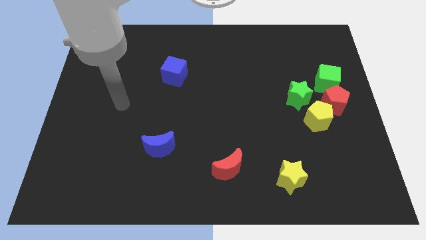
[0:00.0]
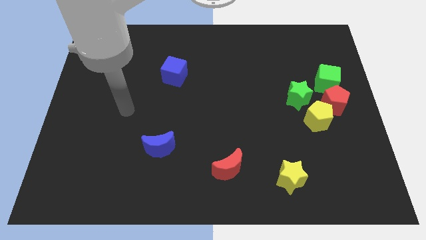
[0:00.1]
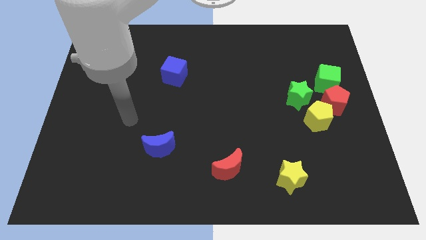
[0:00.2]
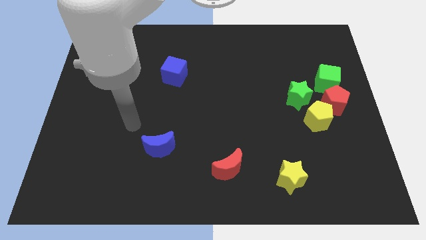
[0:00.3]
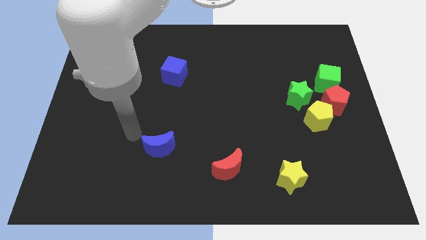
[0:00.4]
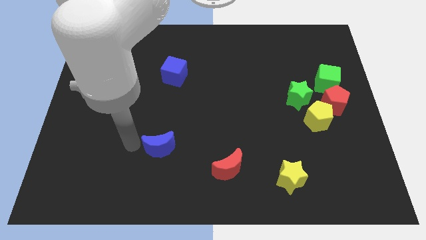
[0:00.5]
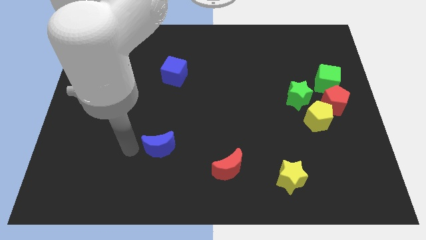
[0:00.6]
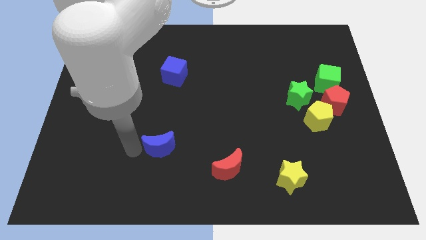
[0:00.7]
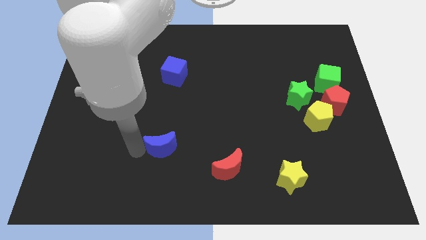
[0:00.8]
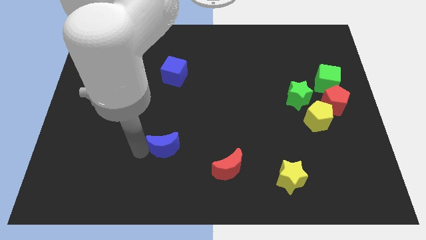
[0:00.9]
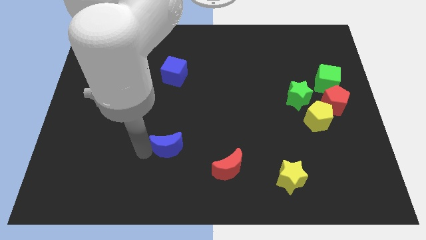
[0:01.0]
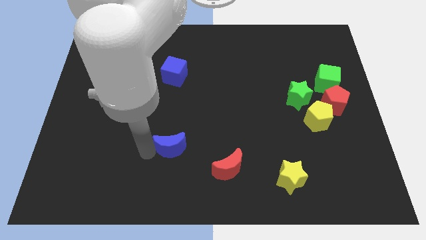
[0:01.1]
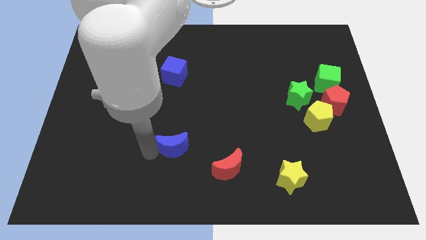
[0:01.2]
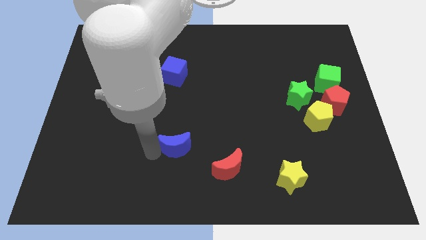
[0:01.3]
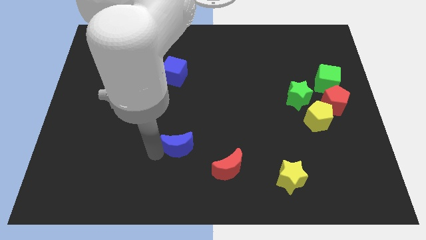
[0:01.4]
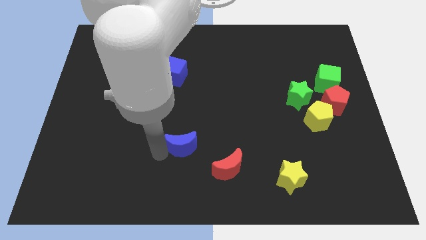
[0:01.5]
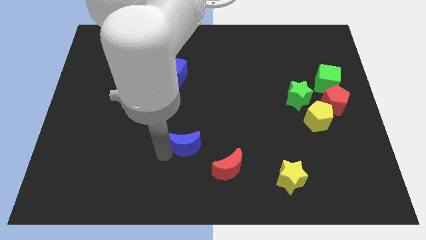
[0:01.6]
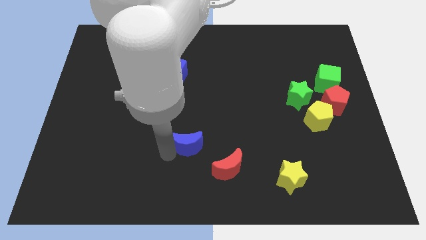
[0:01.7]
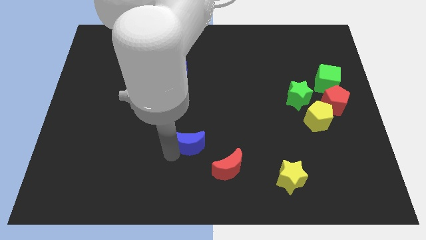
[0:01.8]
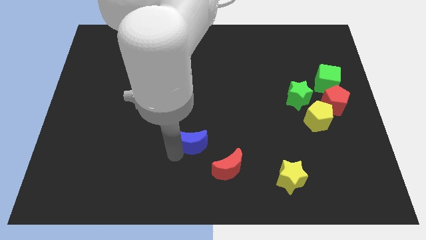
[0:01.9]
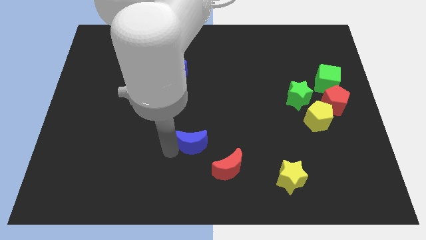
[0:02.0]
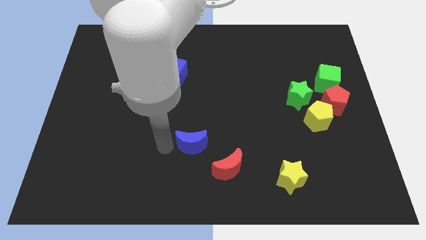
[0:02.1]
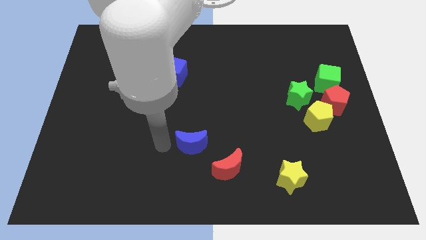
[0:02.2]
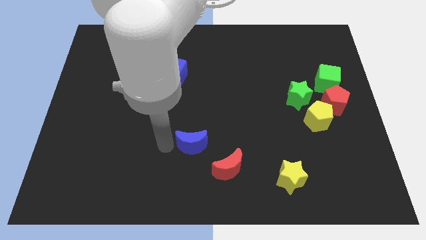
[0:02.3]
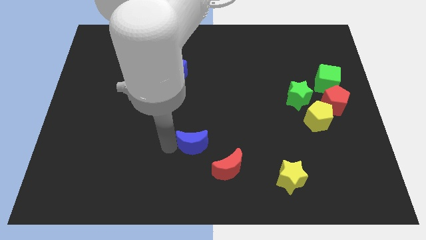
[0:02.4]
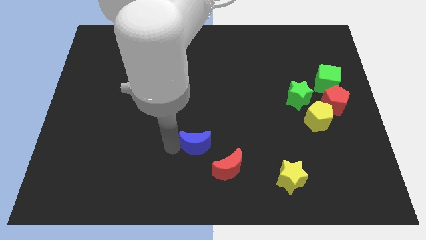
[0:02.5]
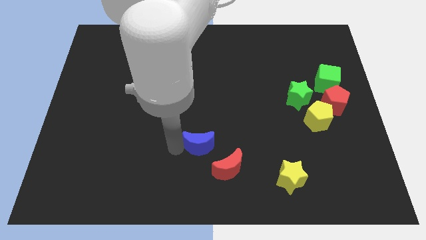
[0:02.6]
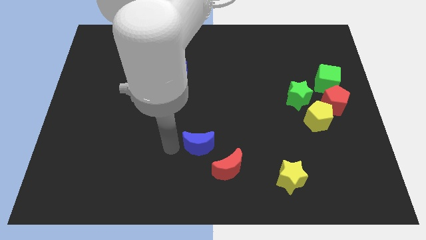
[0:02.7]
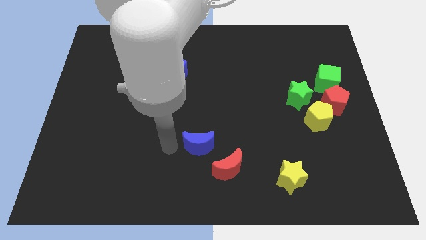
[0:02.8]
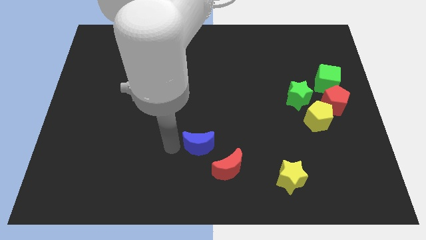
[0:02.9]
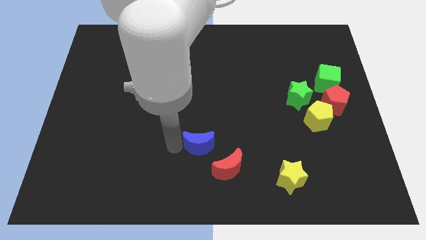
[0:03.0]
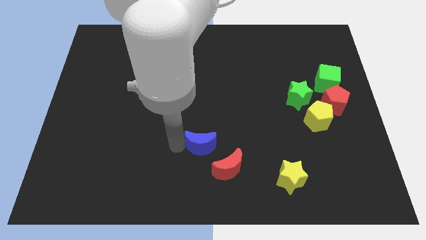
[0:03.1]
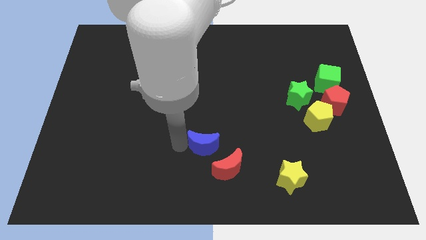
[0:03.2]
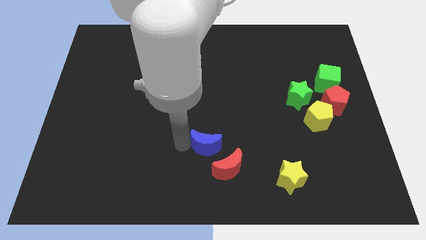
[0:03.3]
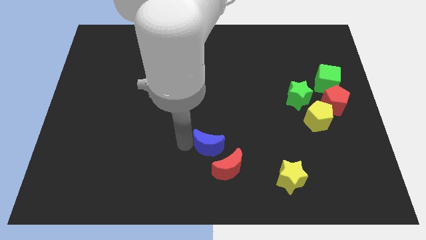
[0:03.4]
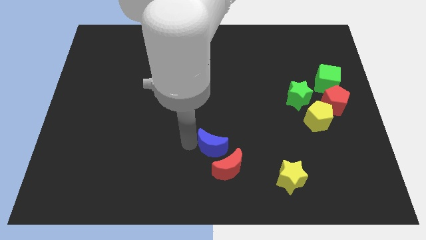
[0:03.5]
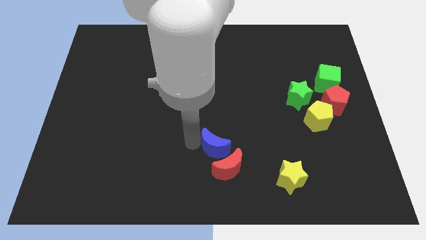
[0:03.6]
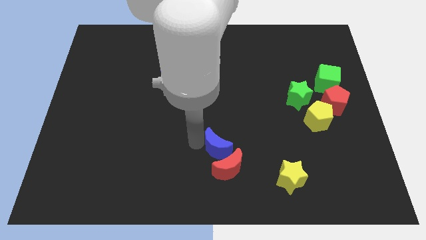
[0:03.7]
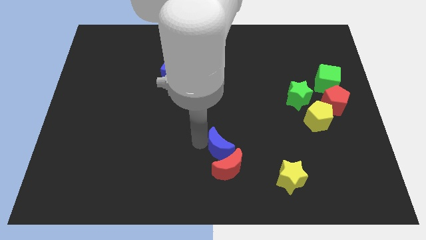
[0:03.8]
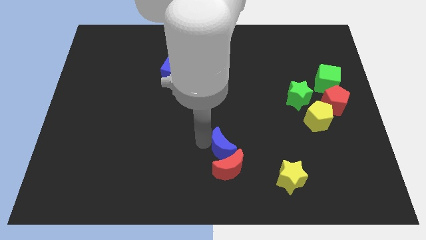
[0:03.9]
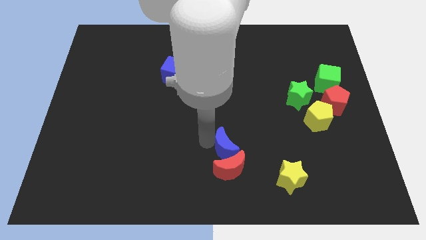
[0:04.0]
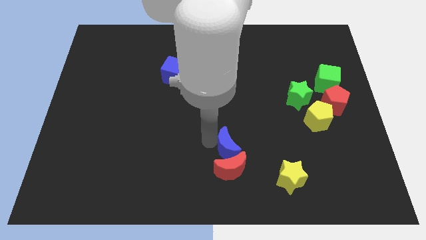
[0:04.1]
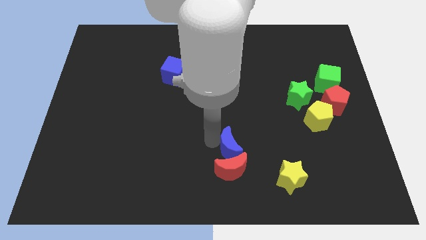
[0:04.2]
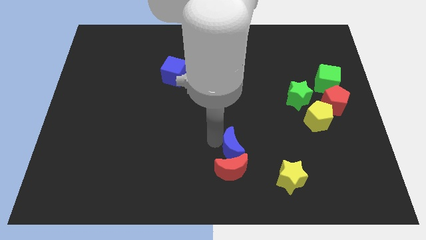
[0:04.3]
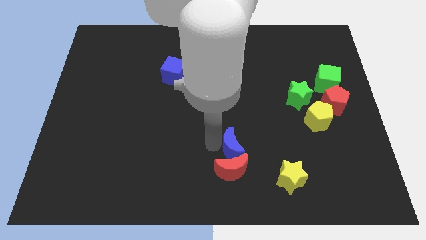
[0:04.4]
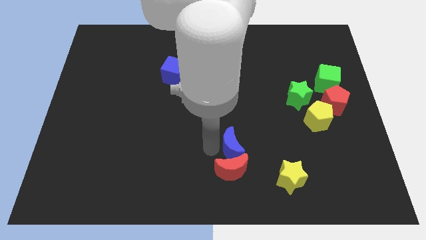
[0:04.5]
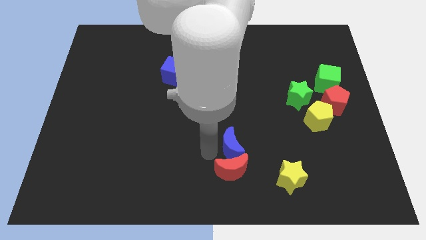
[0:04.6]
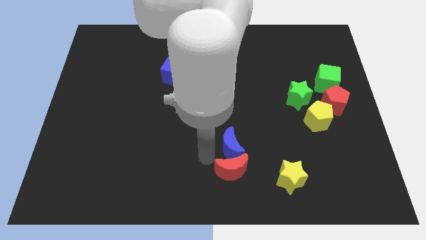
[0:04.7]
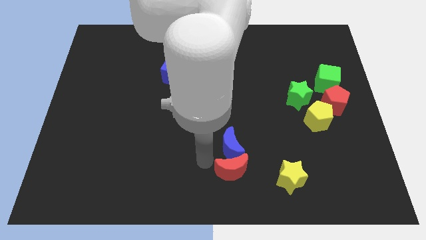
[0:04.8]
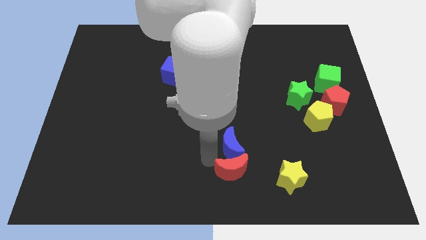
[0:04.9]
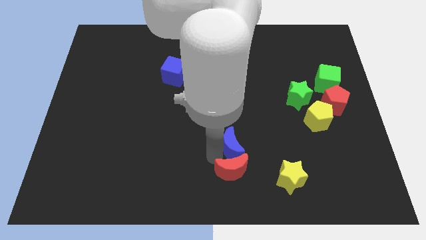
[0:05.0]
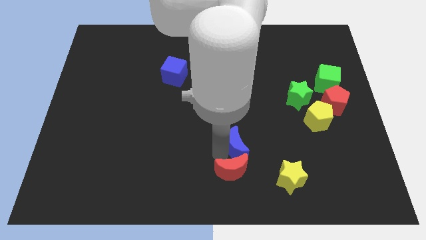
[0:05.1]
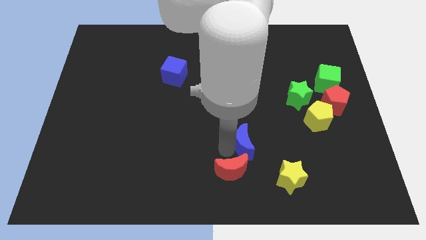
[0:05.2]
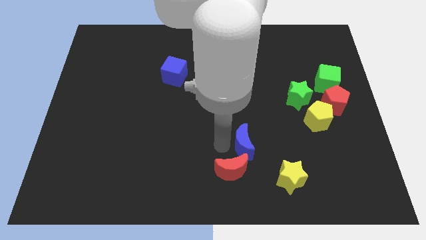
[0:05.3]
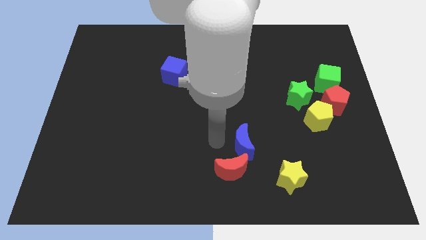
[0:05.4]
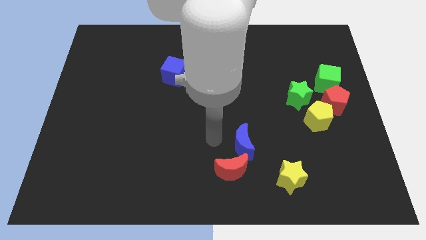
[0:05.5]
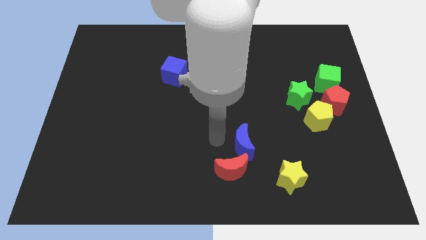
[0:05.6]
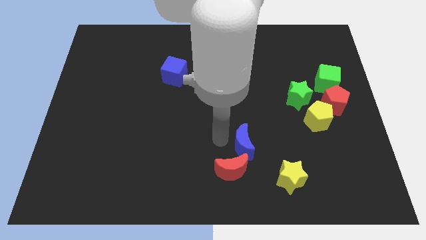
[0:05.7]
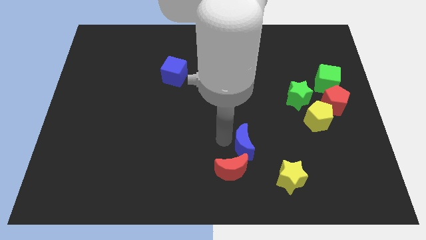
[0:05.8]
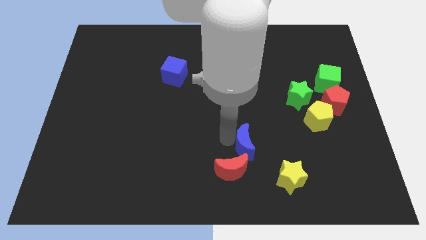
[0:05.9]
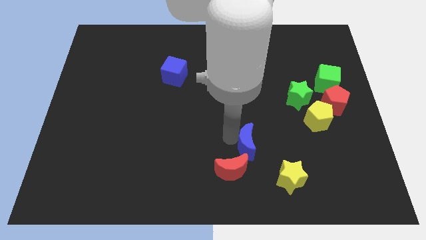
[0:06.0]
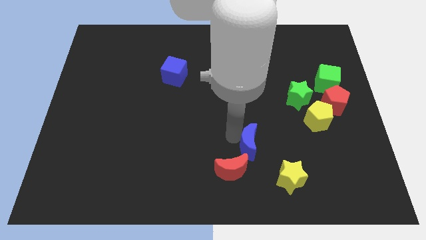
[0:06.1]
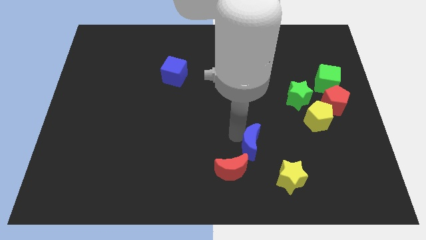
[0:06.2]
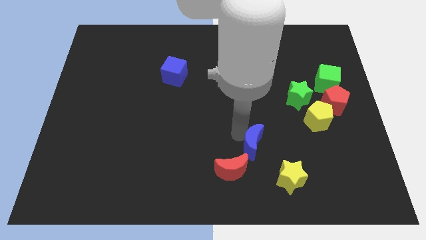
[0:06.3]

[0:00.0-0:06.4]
slide the blue moon right

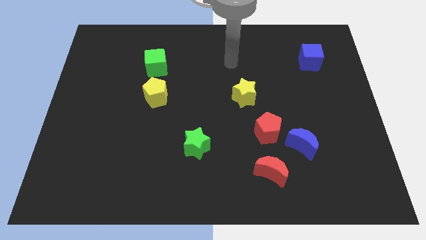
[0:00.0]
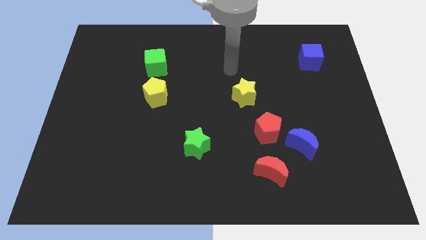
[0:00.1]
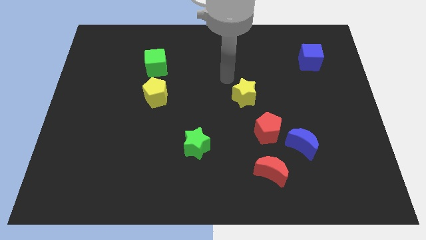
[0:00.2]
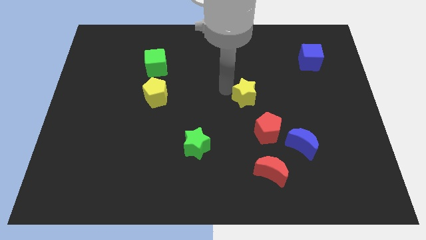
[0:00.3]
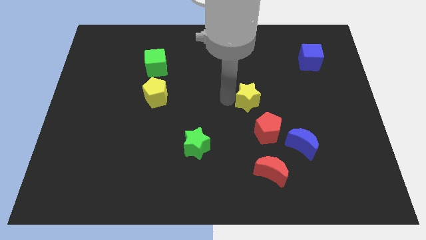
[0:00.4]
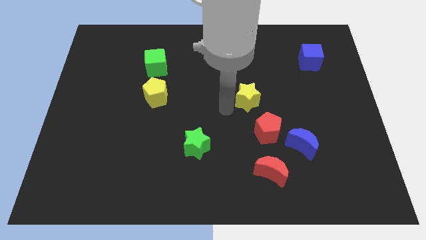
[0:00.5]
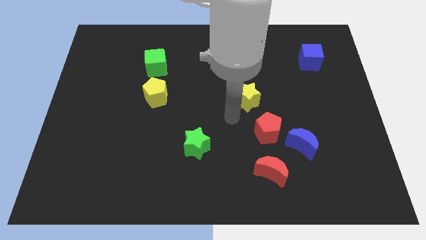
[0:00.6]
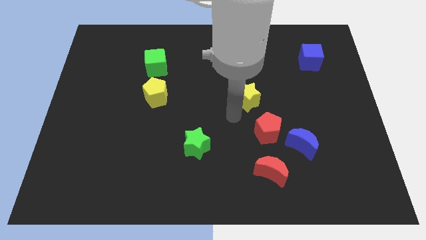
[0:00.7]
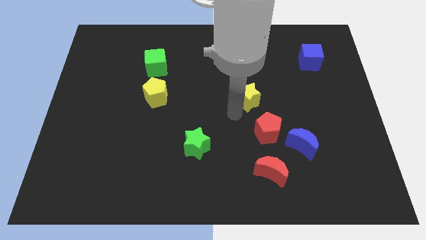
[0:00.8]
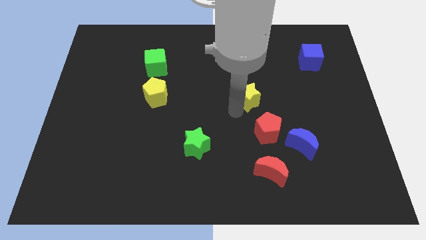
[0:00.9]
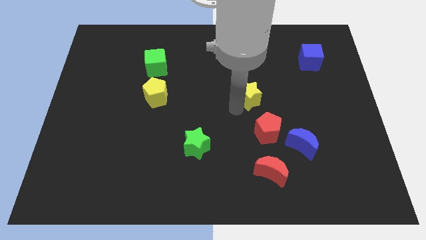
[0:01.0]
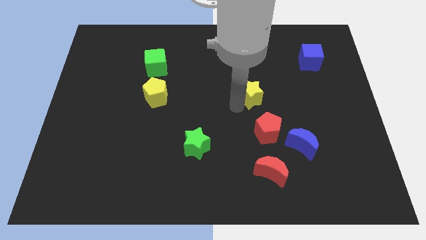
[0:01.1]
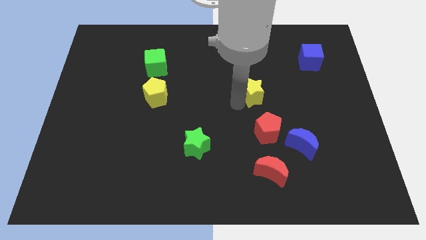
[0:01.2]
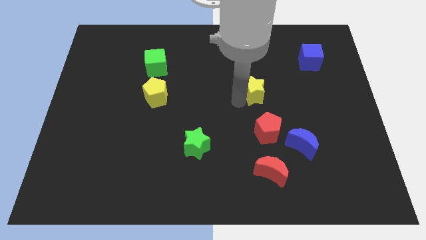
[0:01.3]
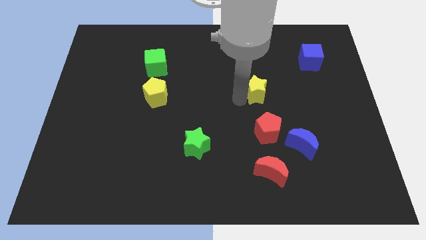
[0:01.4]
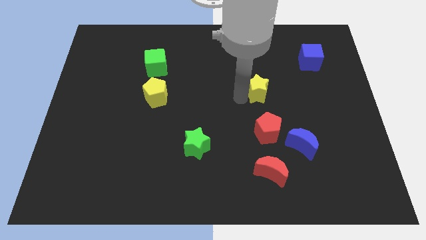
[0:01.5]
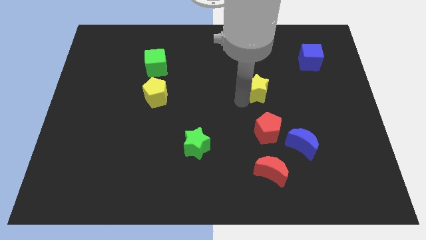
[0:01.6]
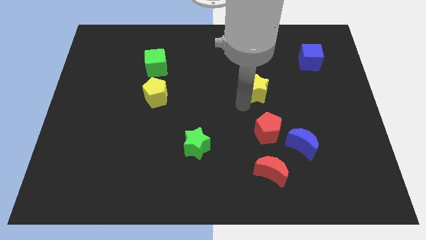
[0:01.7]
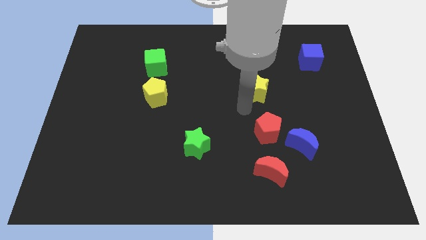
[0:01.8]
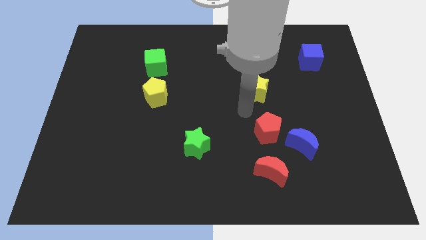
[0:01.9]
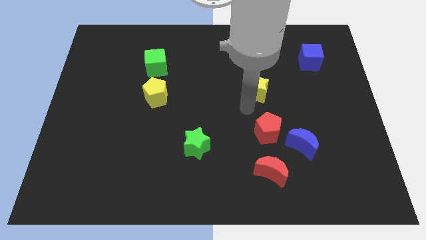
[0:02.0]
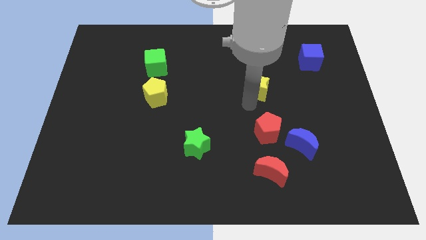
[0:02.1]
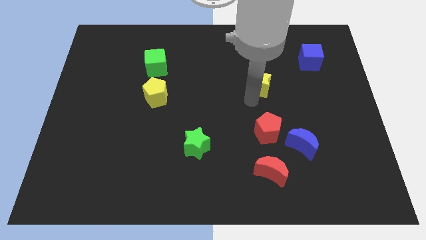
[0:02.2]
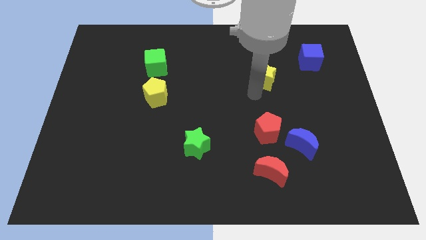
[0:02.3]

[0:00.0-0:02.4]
move the yellow star up and to the right somewhat
